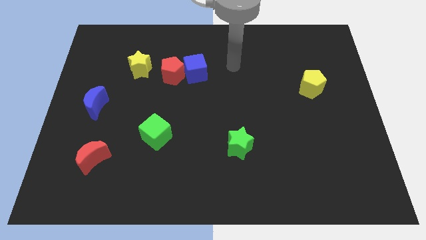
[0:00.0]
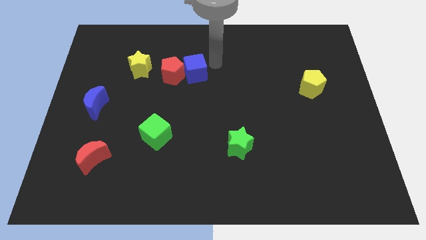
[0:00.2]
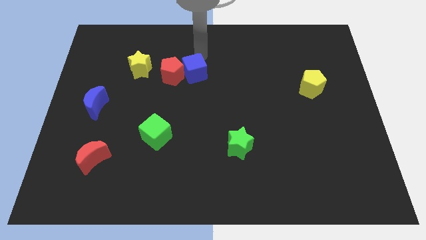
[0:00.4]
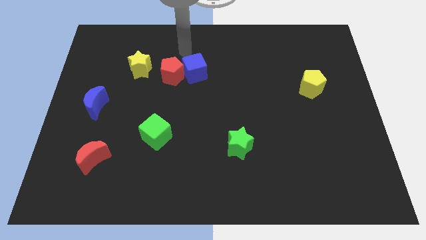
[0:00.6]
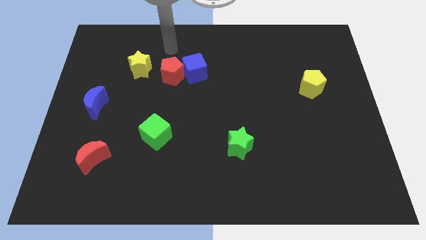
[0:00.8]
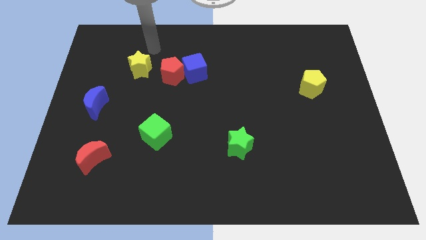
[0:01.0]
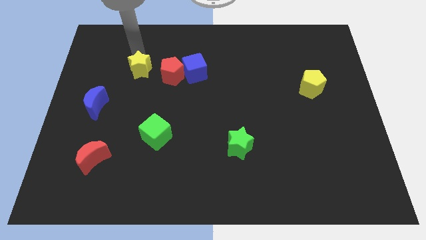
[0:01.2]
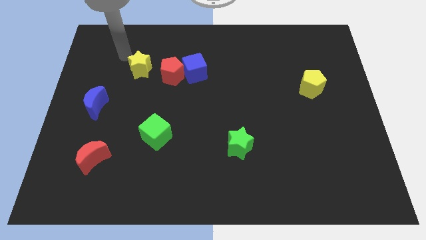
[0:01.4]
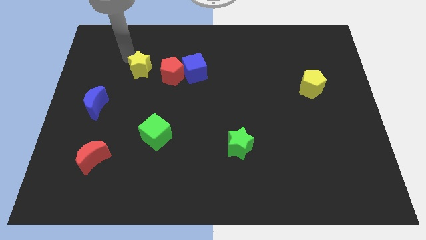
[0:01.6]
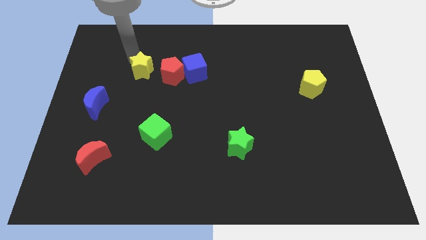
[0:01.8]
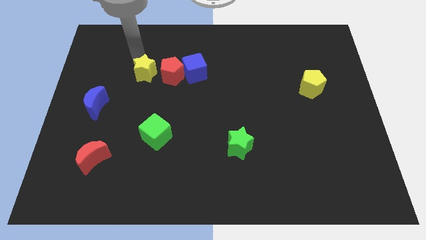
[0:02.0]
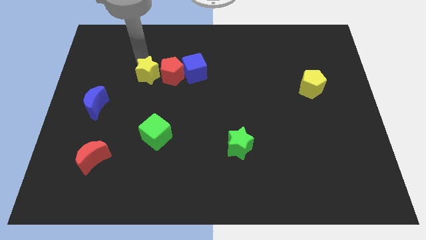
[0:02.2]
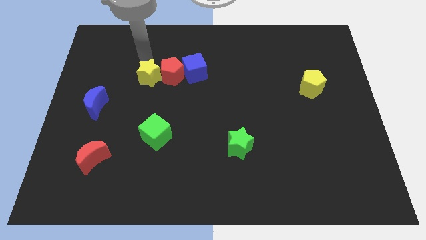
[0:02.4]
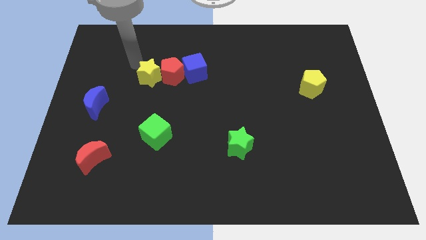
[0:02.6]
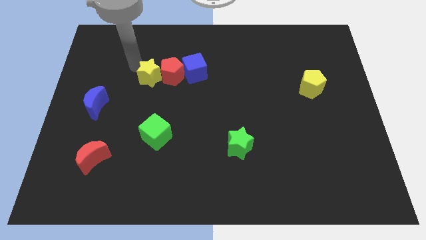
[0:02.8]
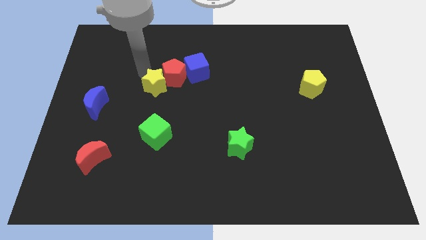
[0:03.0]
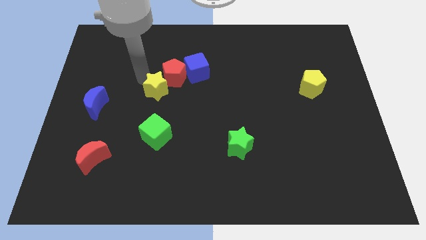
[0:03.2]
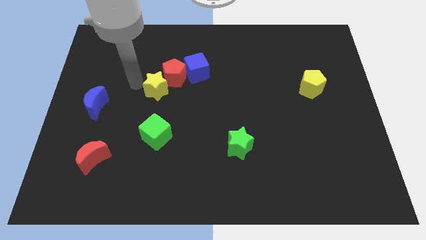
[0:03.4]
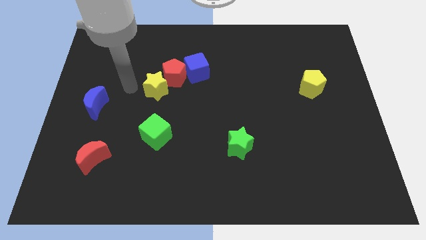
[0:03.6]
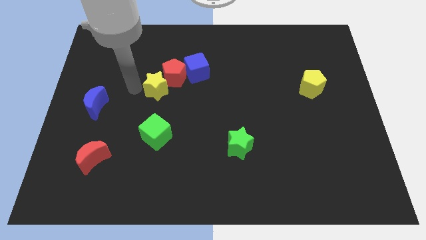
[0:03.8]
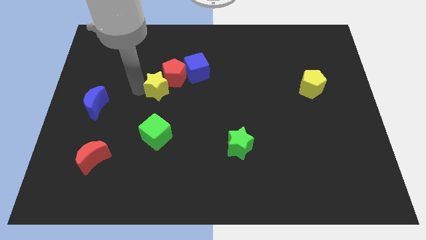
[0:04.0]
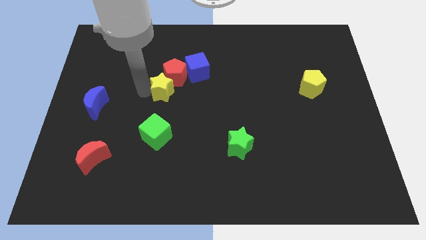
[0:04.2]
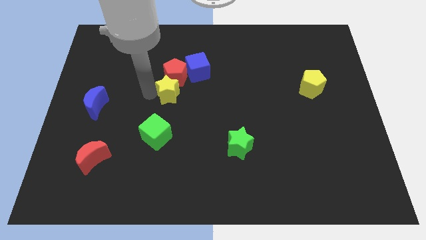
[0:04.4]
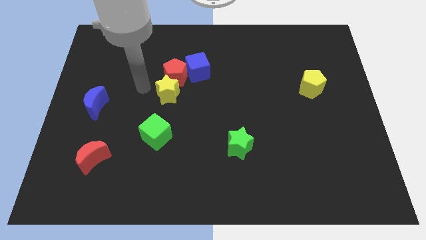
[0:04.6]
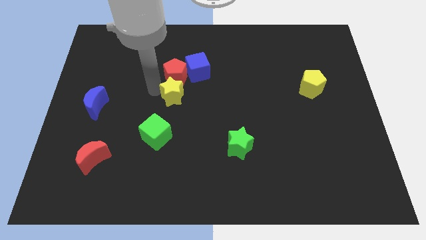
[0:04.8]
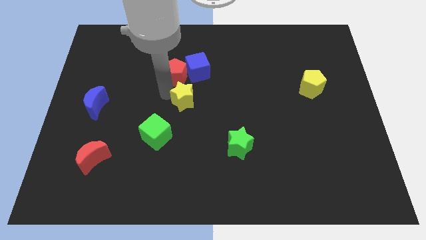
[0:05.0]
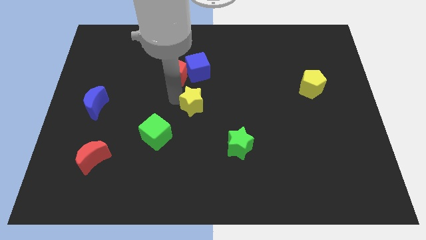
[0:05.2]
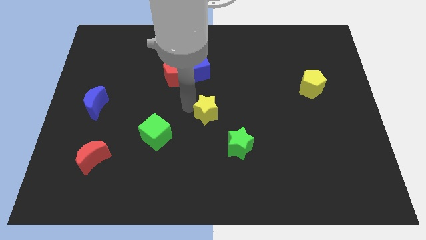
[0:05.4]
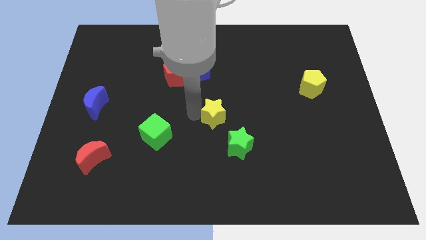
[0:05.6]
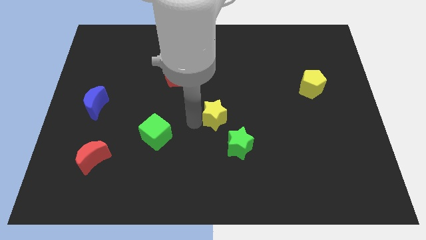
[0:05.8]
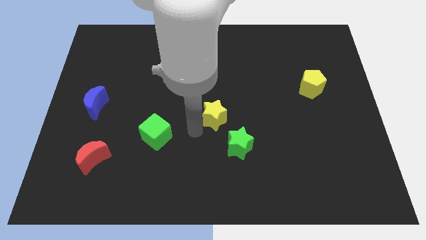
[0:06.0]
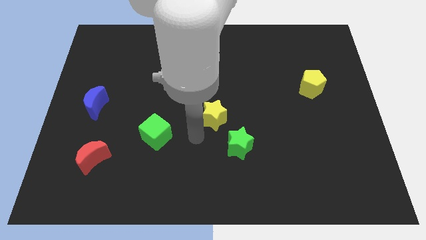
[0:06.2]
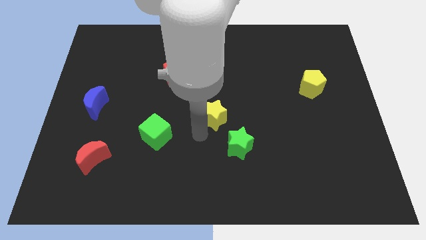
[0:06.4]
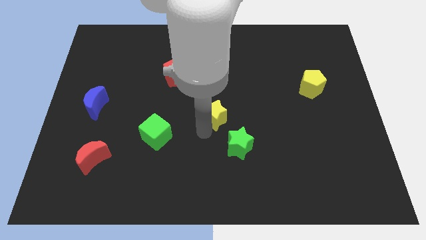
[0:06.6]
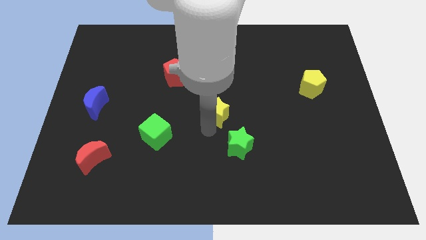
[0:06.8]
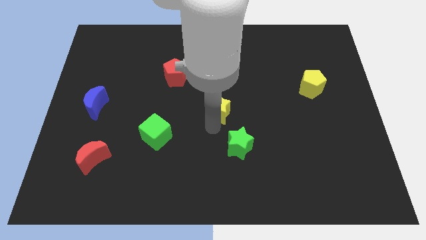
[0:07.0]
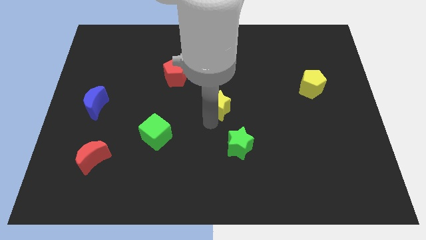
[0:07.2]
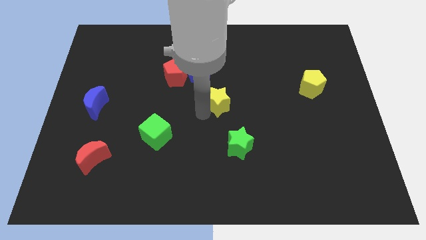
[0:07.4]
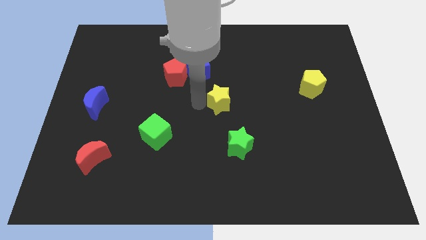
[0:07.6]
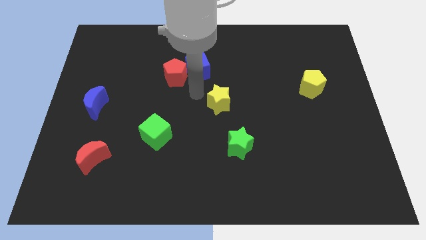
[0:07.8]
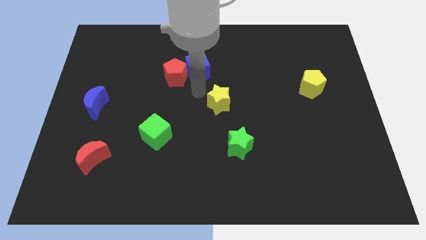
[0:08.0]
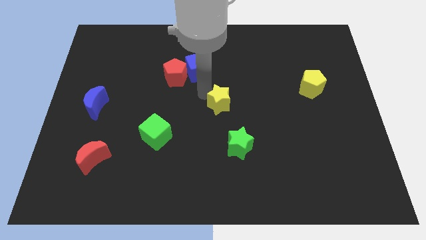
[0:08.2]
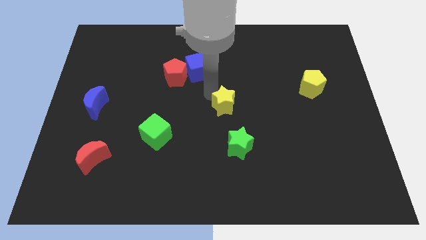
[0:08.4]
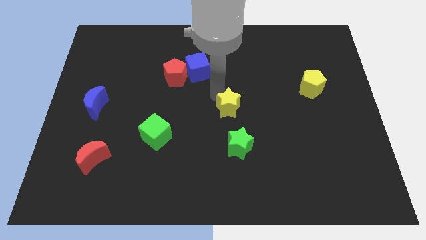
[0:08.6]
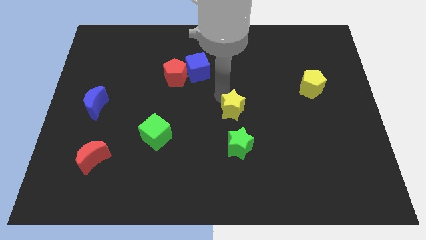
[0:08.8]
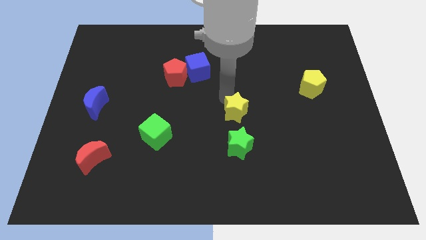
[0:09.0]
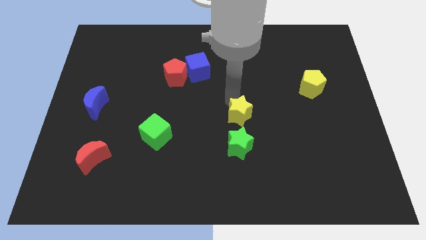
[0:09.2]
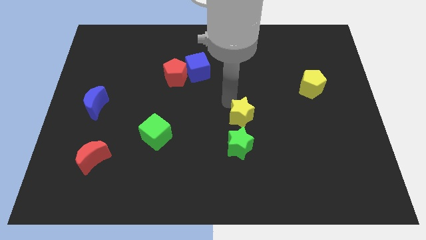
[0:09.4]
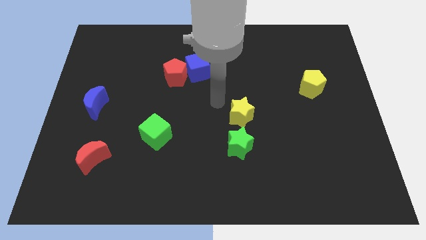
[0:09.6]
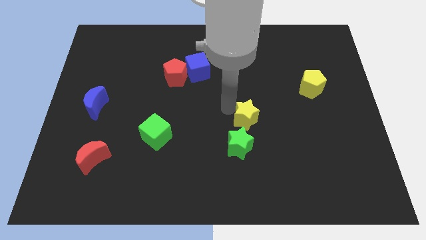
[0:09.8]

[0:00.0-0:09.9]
put the yellow star diagonally up and to the right of the green star

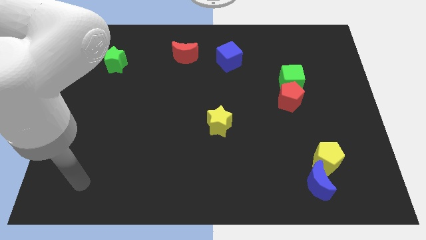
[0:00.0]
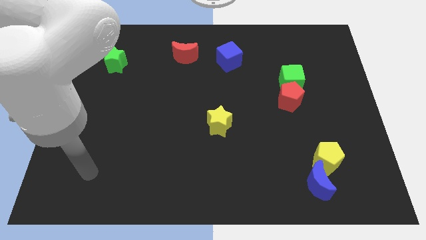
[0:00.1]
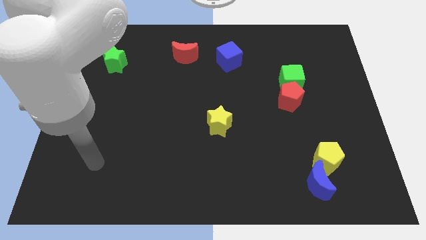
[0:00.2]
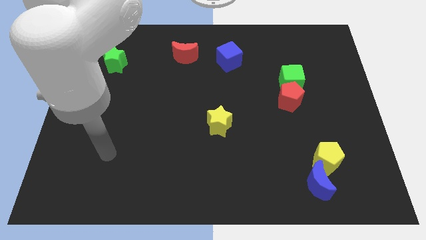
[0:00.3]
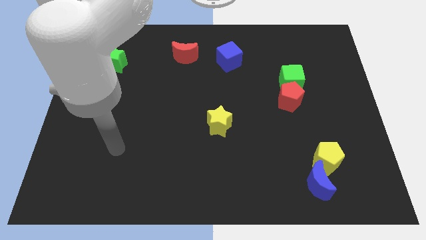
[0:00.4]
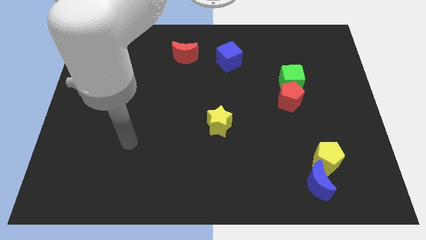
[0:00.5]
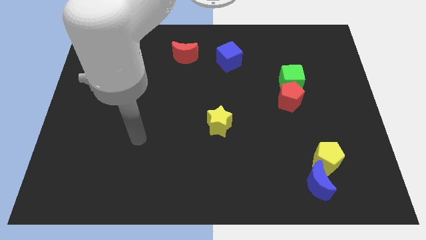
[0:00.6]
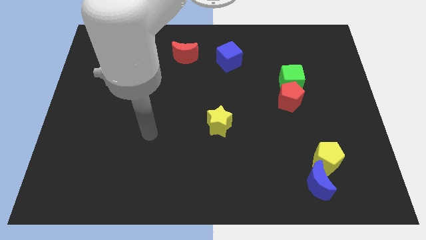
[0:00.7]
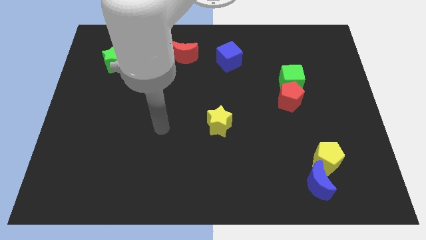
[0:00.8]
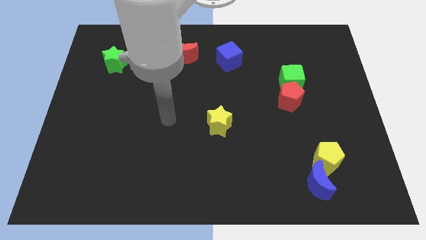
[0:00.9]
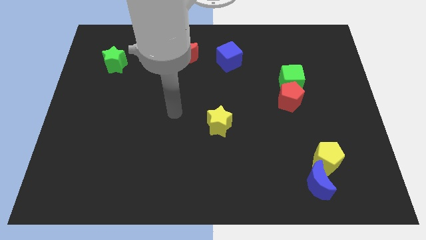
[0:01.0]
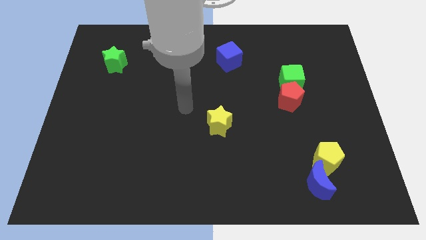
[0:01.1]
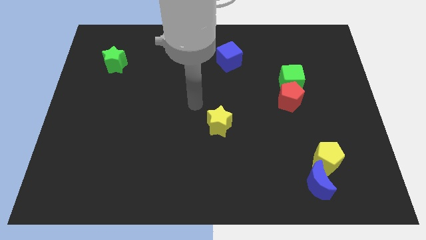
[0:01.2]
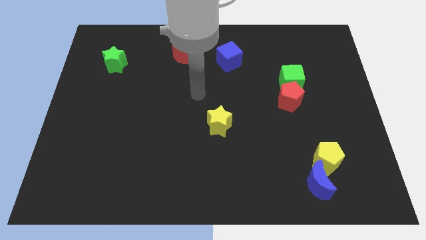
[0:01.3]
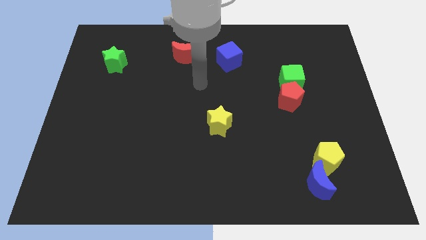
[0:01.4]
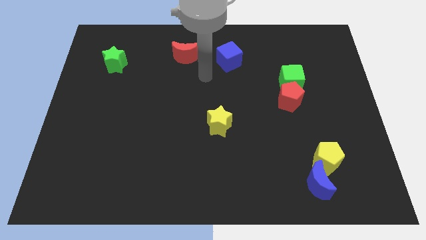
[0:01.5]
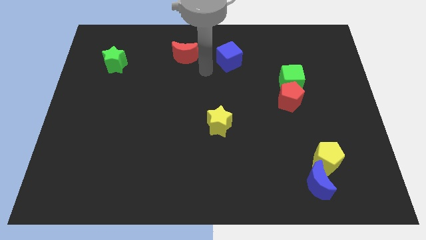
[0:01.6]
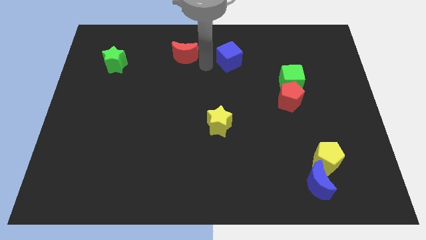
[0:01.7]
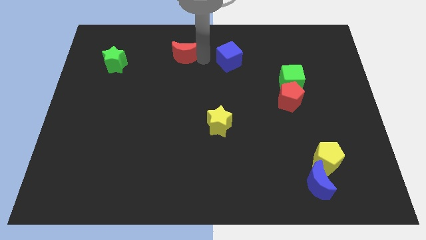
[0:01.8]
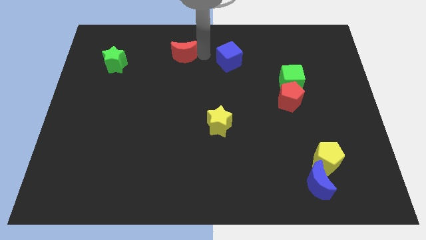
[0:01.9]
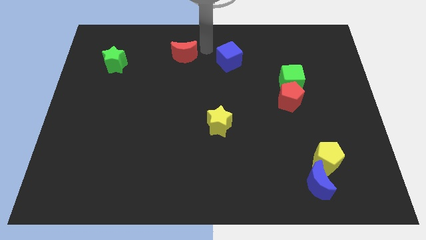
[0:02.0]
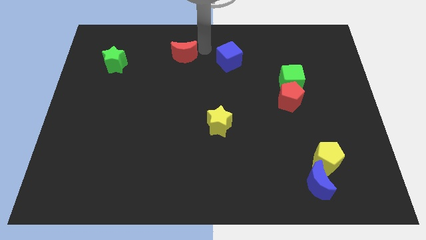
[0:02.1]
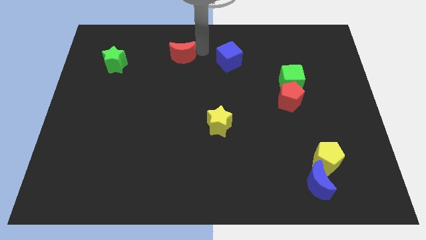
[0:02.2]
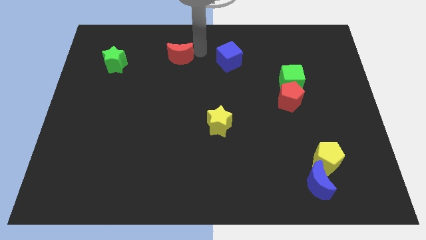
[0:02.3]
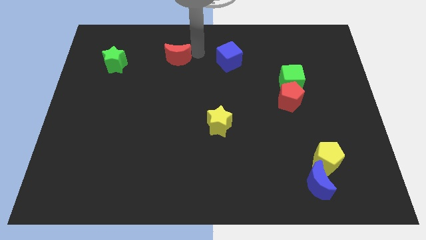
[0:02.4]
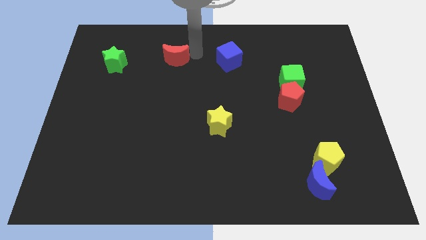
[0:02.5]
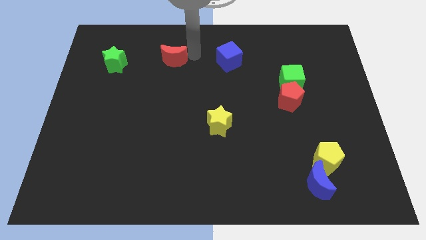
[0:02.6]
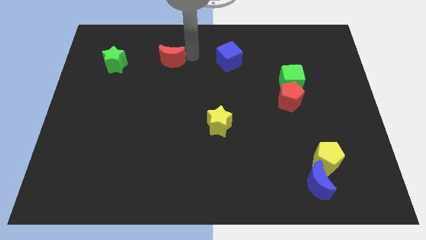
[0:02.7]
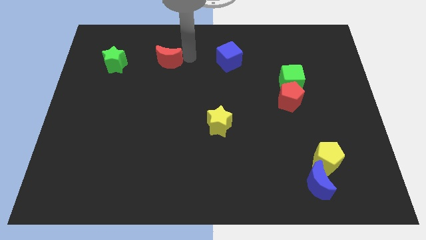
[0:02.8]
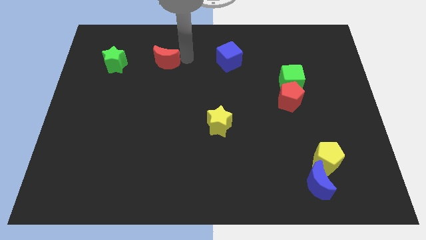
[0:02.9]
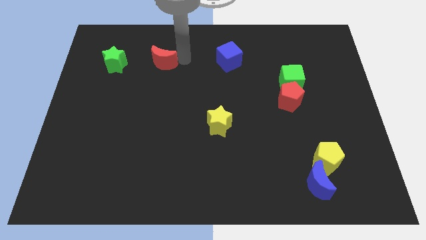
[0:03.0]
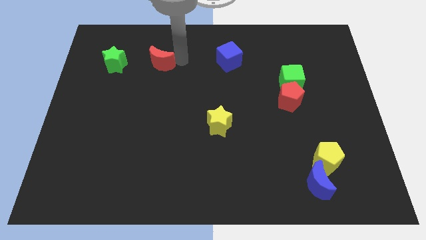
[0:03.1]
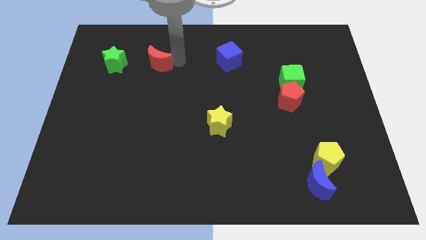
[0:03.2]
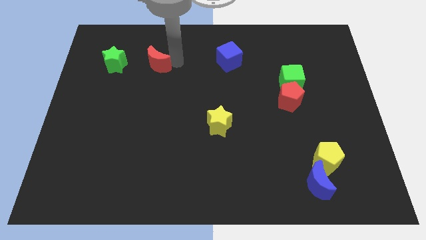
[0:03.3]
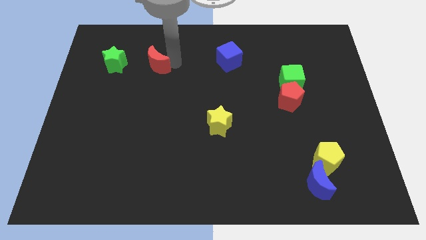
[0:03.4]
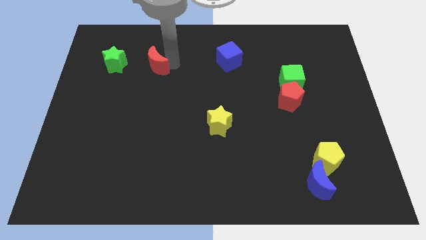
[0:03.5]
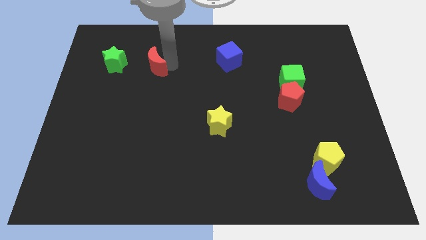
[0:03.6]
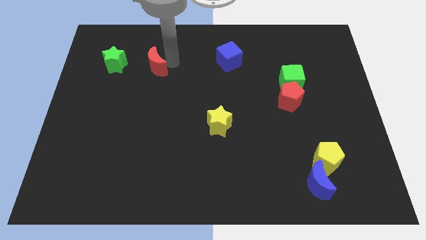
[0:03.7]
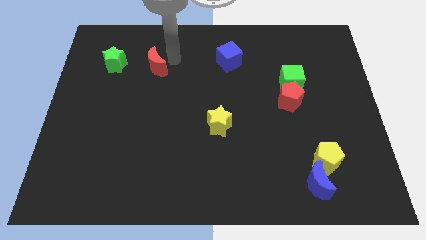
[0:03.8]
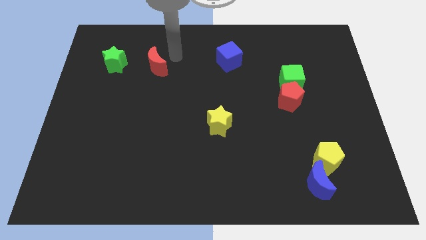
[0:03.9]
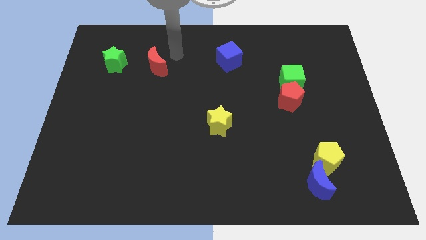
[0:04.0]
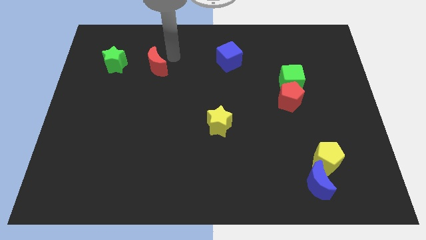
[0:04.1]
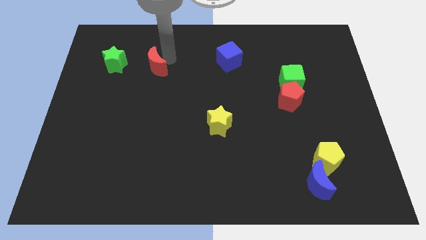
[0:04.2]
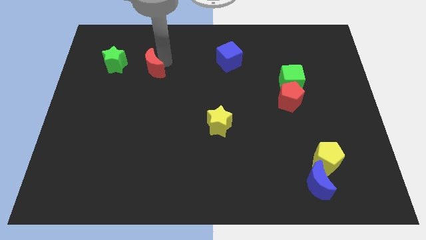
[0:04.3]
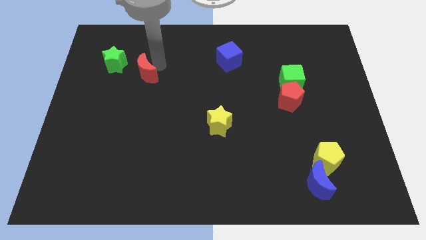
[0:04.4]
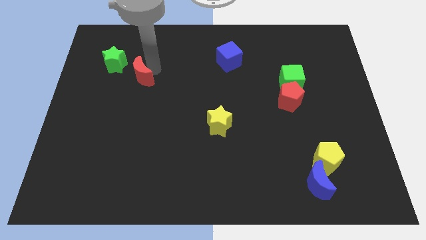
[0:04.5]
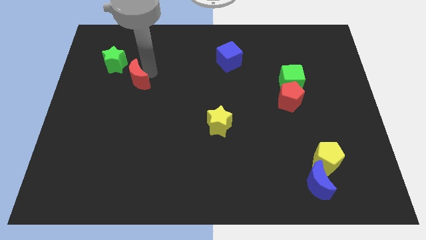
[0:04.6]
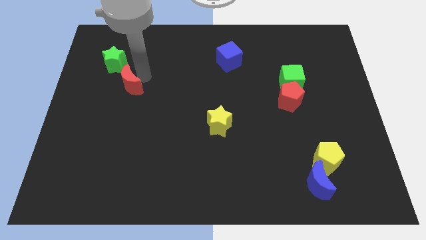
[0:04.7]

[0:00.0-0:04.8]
move the red moon to the bottom of the green star
